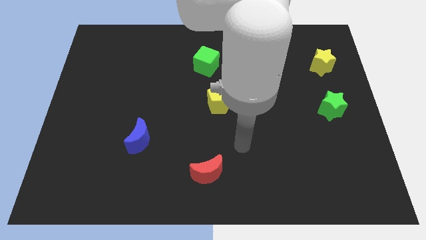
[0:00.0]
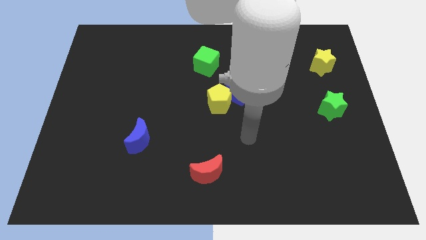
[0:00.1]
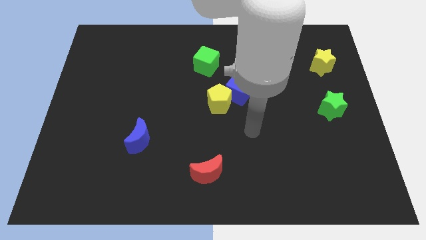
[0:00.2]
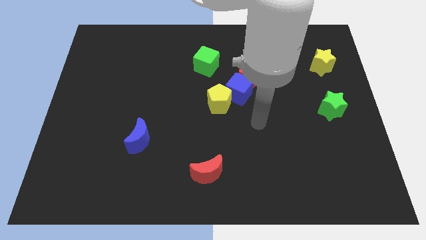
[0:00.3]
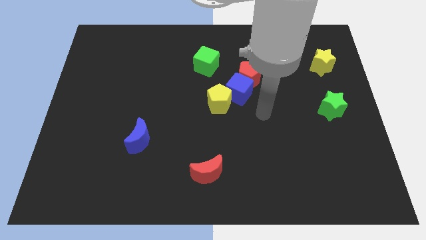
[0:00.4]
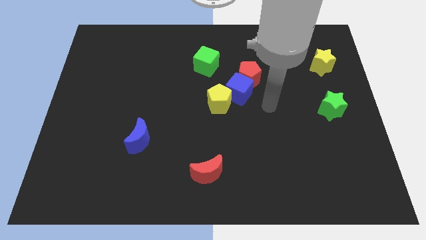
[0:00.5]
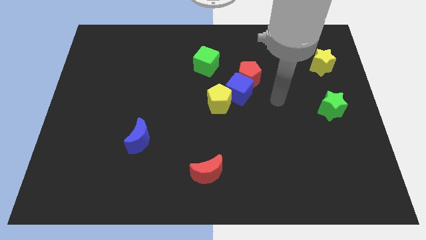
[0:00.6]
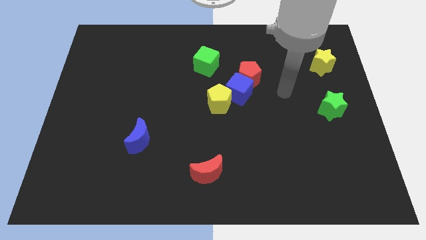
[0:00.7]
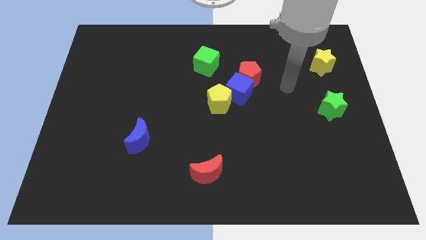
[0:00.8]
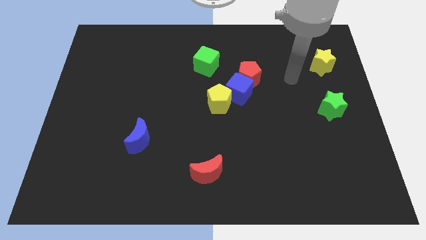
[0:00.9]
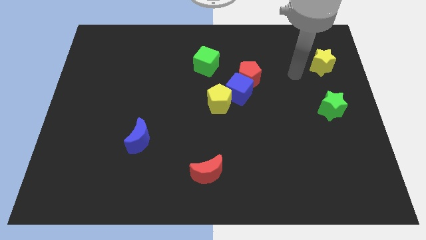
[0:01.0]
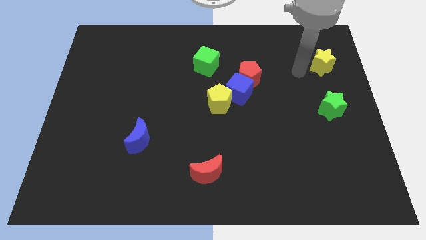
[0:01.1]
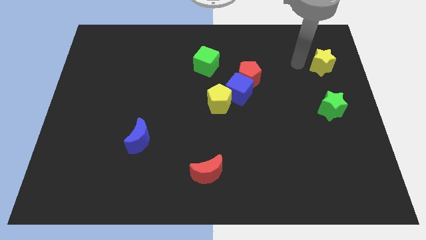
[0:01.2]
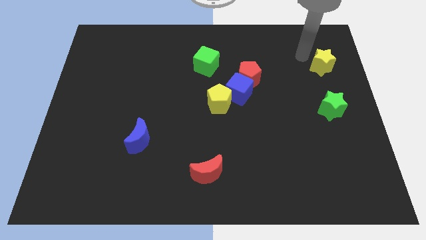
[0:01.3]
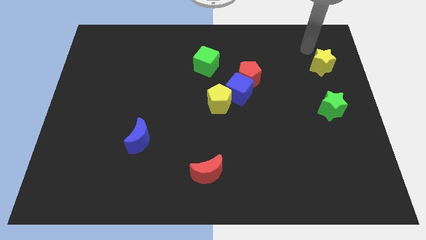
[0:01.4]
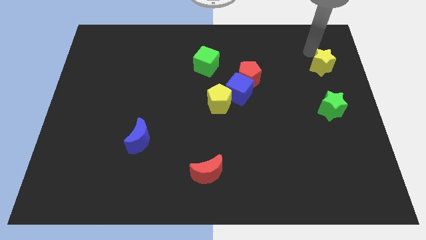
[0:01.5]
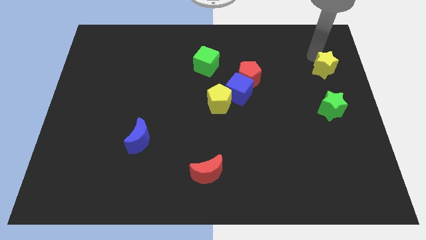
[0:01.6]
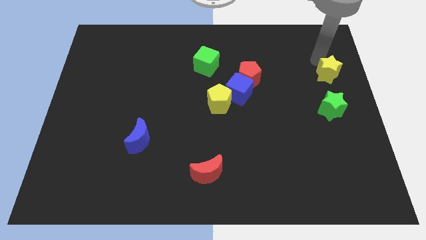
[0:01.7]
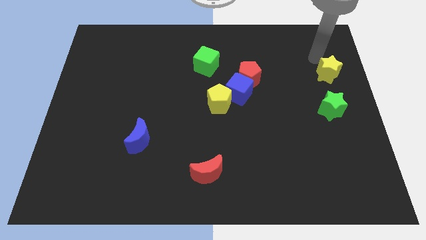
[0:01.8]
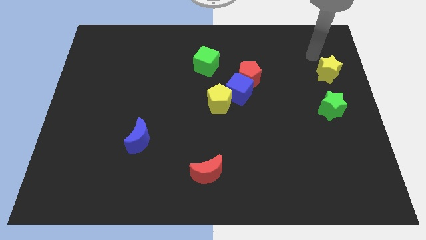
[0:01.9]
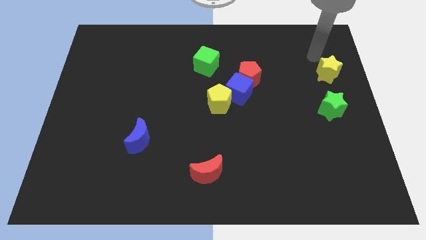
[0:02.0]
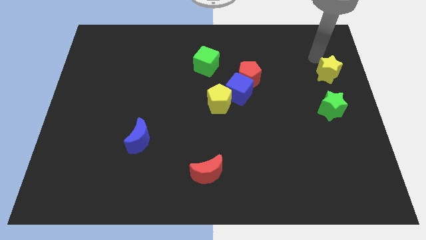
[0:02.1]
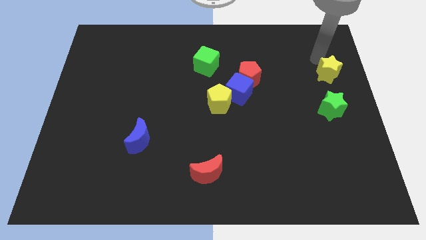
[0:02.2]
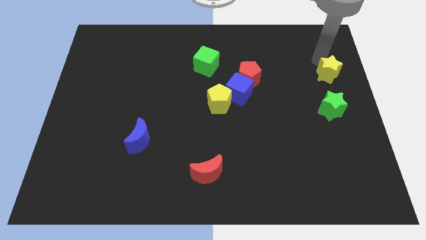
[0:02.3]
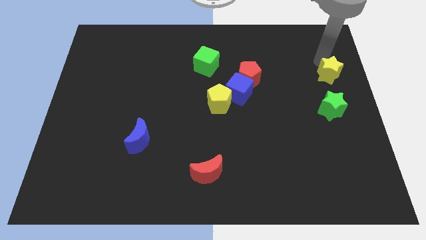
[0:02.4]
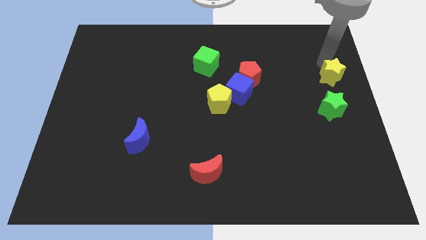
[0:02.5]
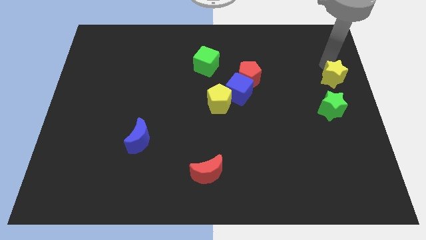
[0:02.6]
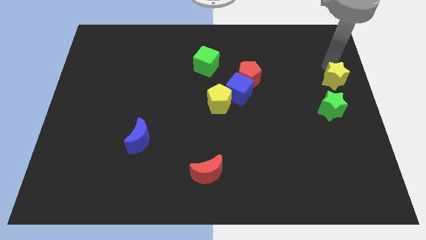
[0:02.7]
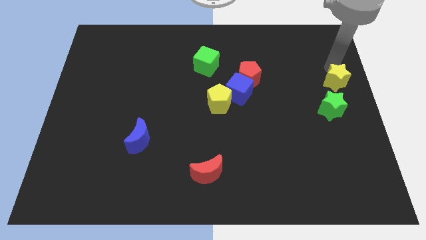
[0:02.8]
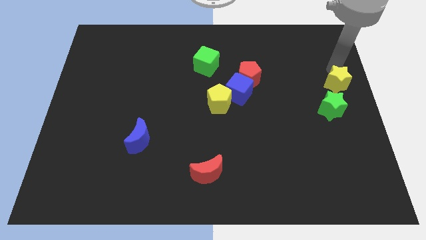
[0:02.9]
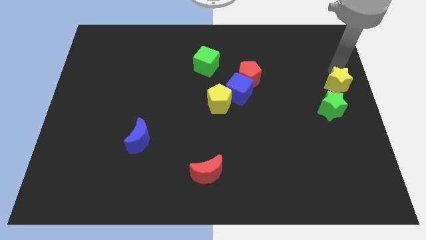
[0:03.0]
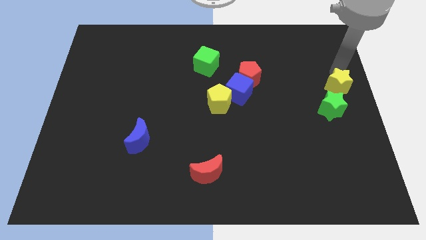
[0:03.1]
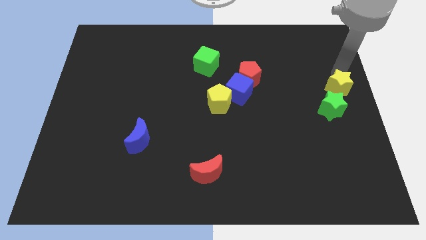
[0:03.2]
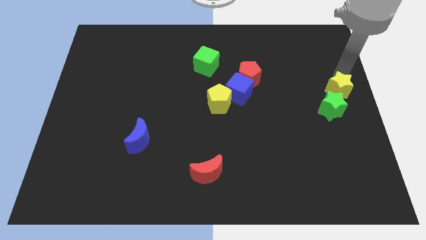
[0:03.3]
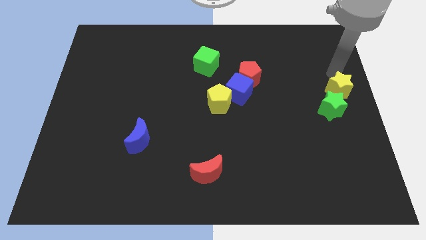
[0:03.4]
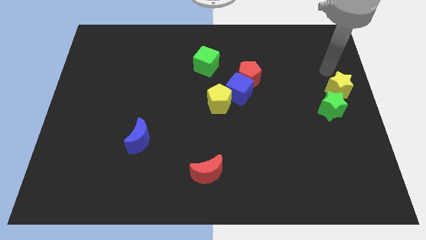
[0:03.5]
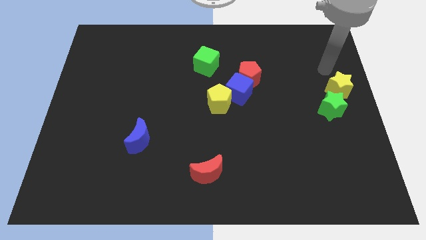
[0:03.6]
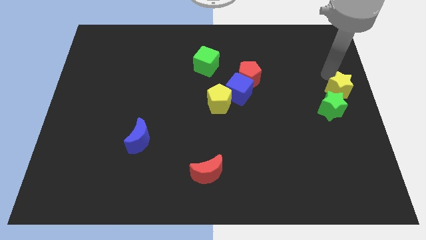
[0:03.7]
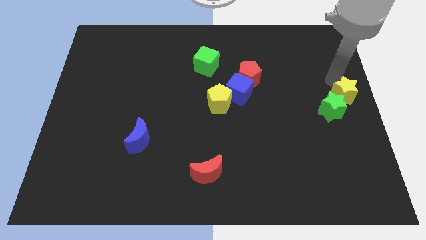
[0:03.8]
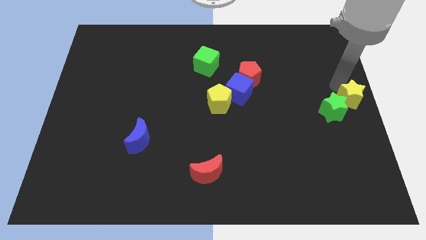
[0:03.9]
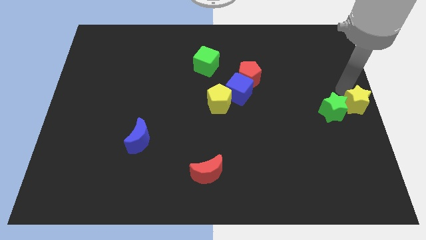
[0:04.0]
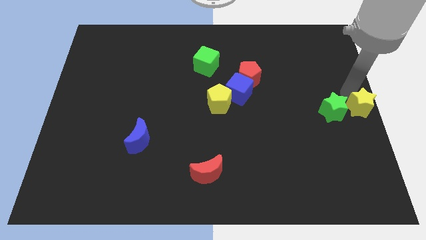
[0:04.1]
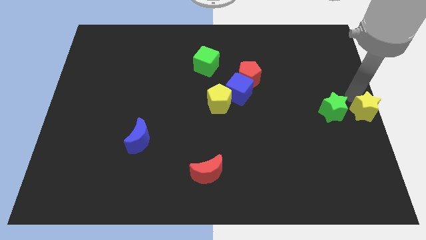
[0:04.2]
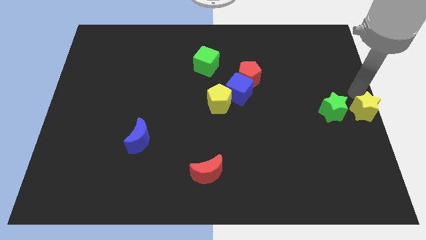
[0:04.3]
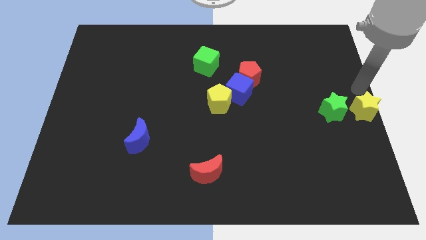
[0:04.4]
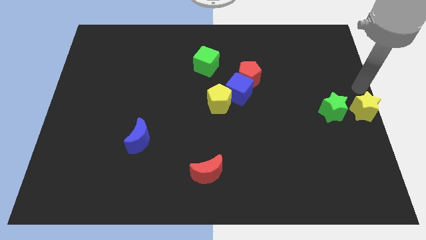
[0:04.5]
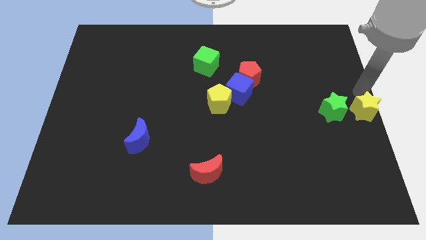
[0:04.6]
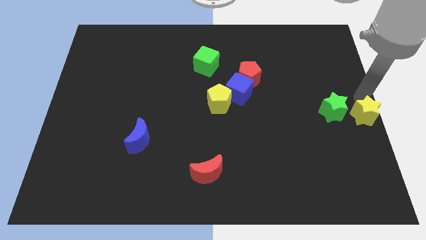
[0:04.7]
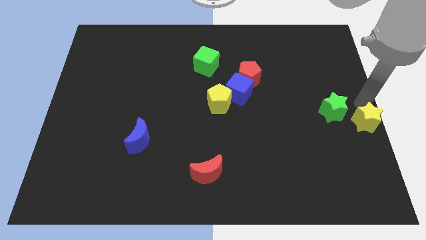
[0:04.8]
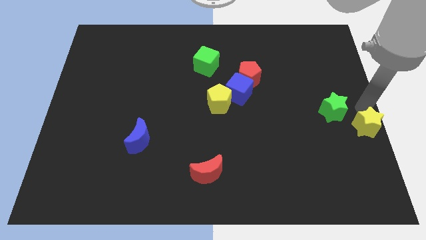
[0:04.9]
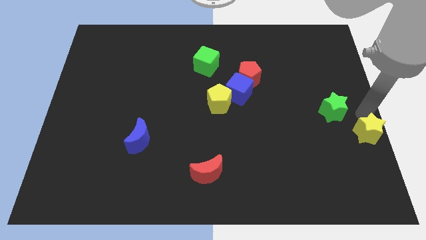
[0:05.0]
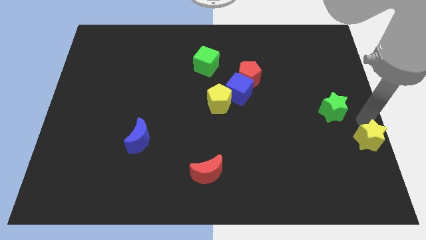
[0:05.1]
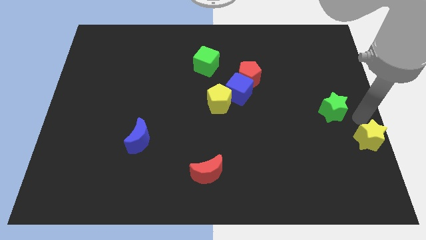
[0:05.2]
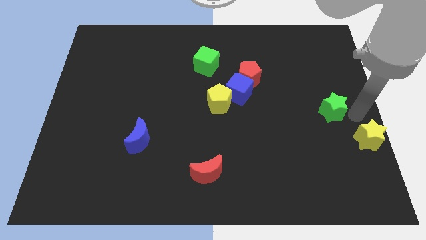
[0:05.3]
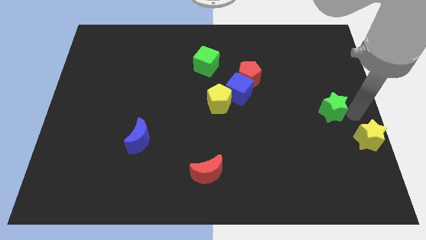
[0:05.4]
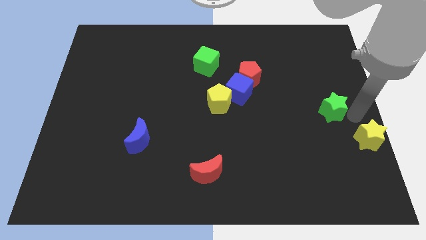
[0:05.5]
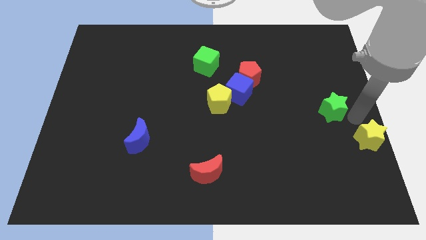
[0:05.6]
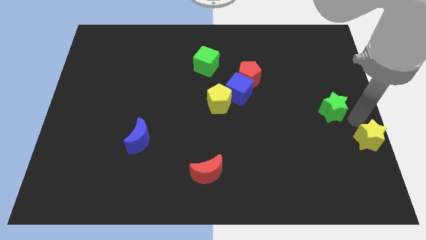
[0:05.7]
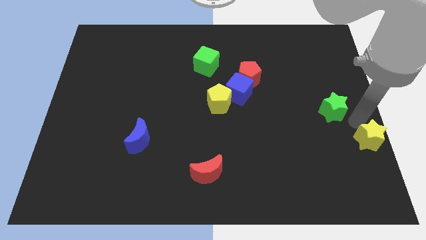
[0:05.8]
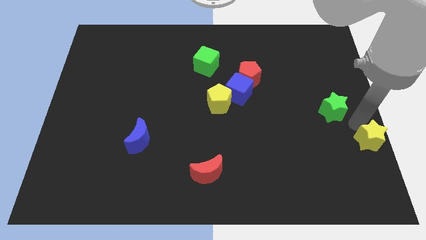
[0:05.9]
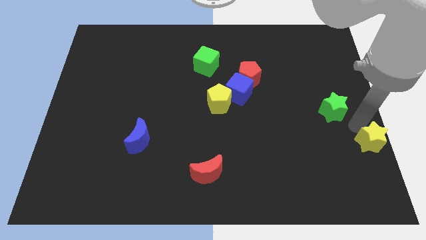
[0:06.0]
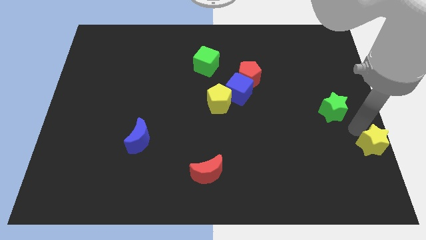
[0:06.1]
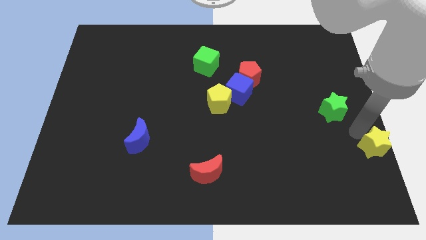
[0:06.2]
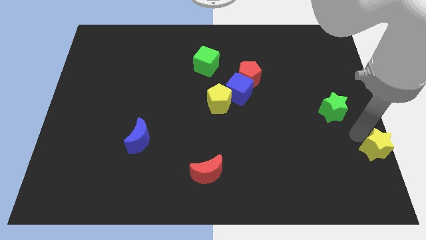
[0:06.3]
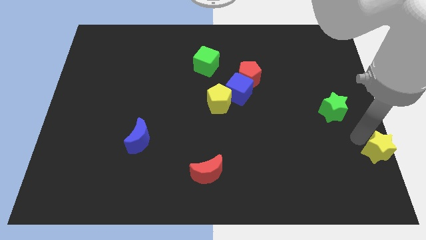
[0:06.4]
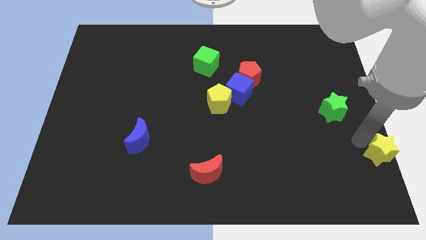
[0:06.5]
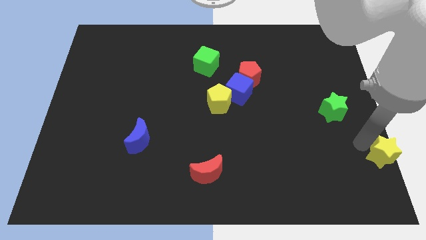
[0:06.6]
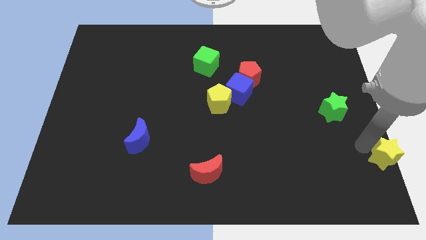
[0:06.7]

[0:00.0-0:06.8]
slide the yellow star to the bottom right corner

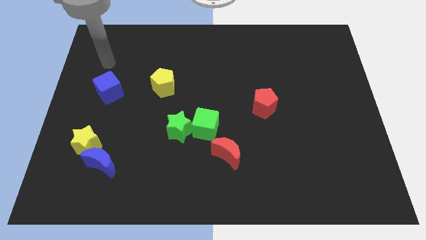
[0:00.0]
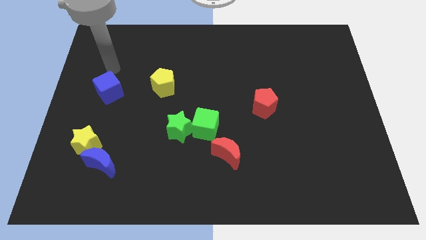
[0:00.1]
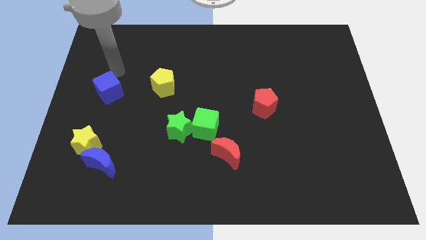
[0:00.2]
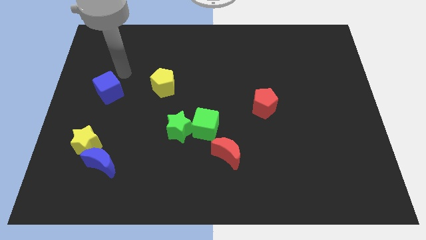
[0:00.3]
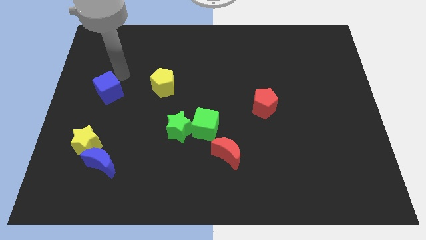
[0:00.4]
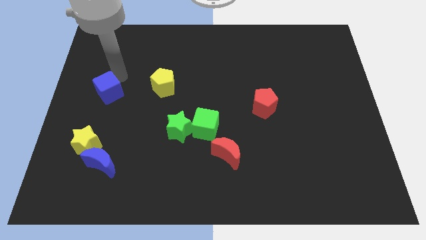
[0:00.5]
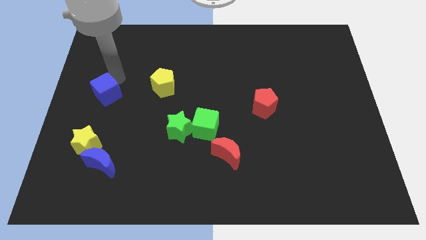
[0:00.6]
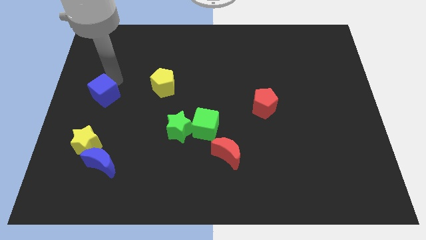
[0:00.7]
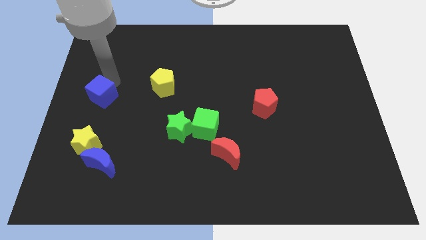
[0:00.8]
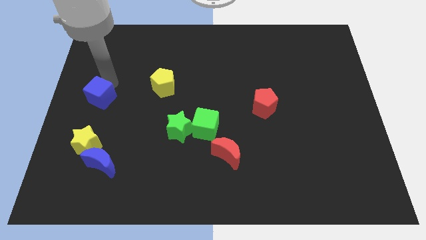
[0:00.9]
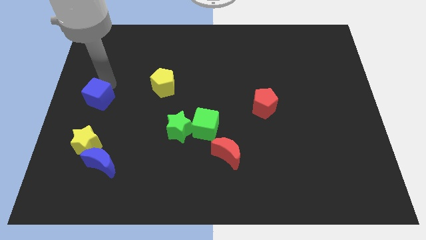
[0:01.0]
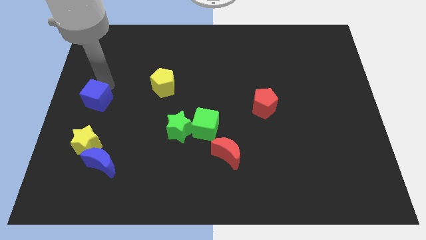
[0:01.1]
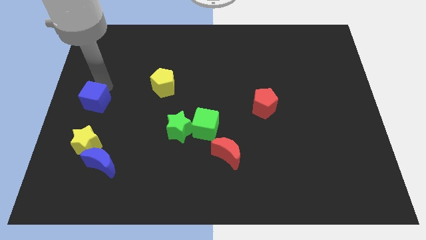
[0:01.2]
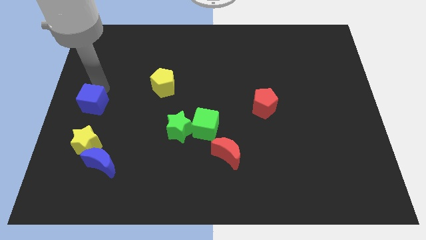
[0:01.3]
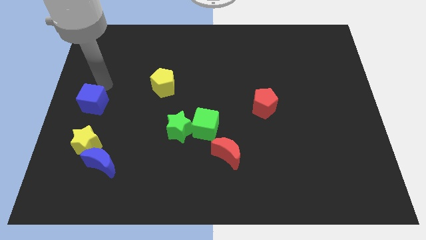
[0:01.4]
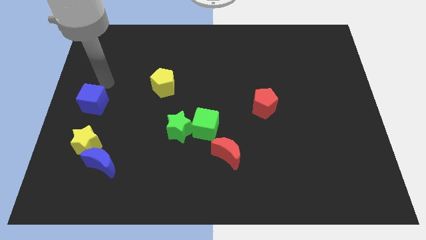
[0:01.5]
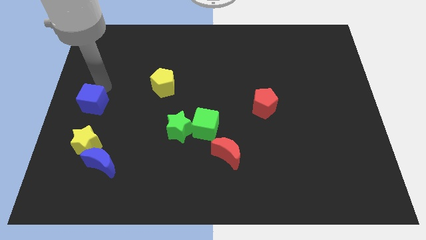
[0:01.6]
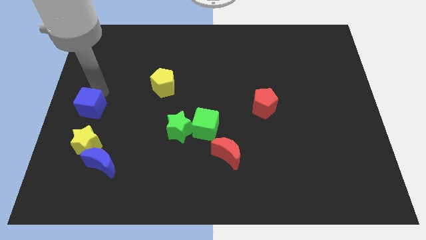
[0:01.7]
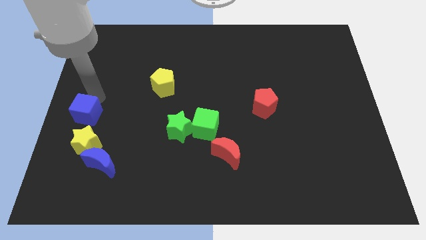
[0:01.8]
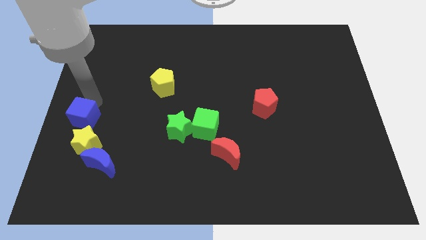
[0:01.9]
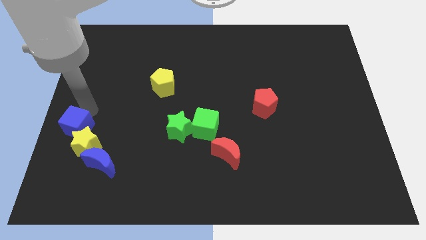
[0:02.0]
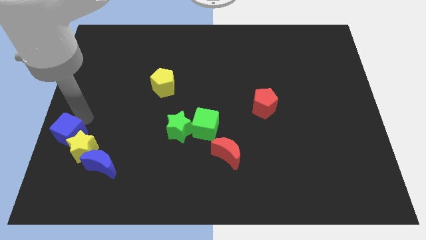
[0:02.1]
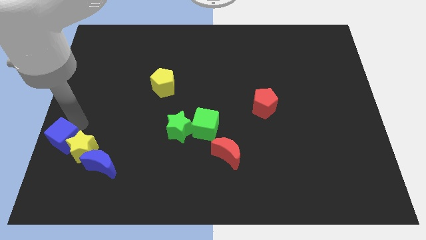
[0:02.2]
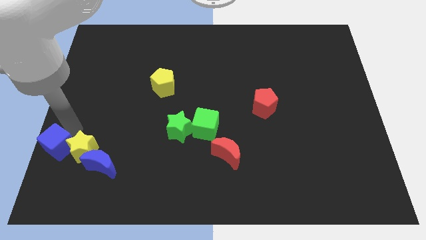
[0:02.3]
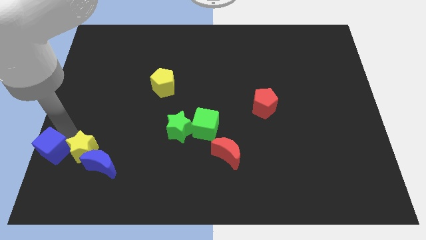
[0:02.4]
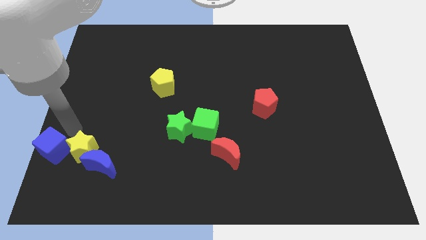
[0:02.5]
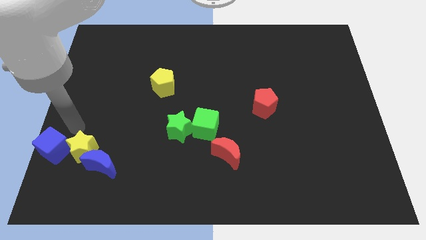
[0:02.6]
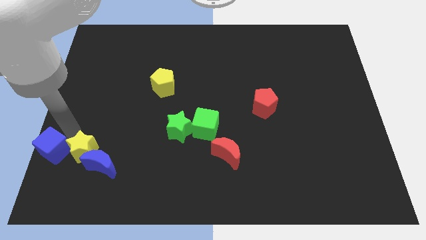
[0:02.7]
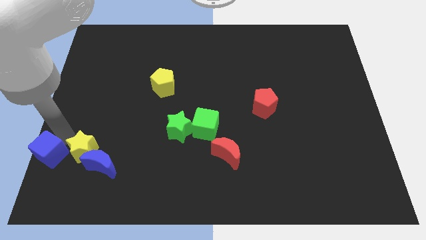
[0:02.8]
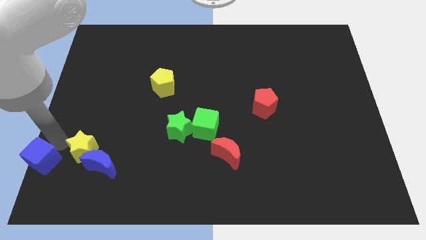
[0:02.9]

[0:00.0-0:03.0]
move the blue cube to the lower left corner
